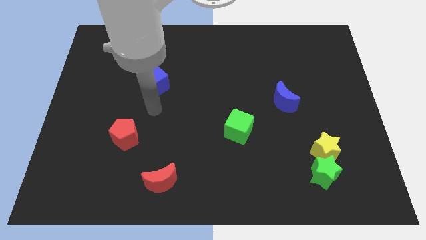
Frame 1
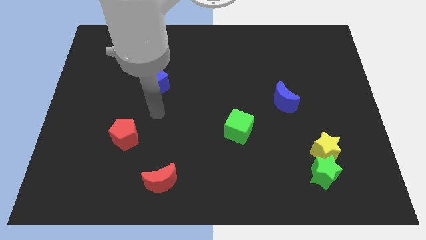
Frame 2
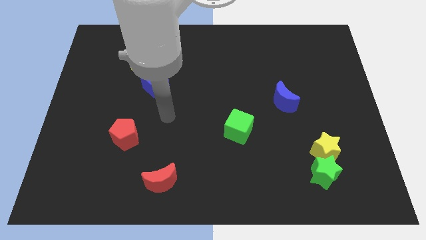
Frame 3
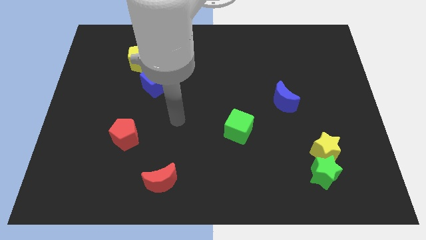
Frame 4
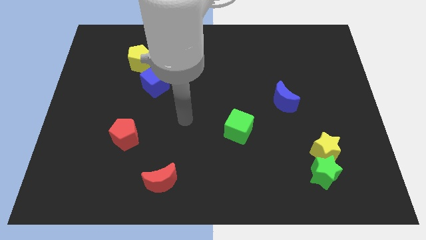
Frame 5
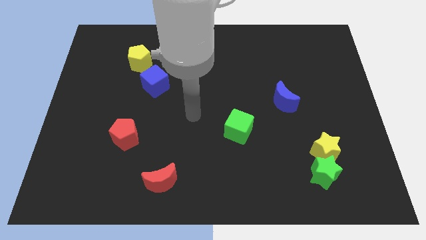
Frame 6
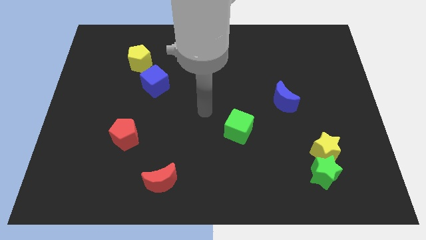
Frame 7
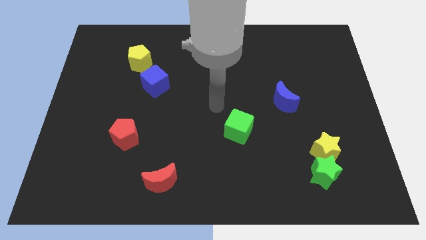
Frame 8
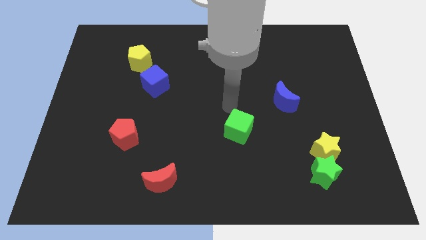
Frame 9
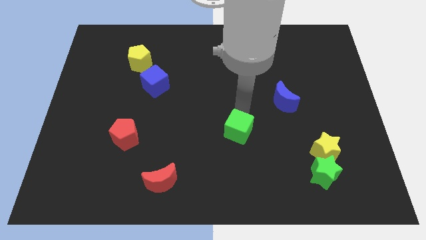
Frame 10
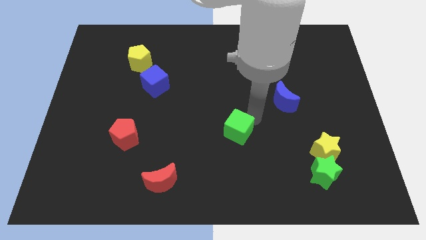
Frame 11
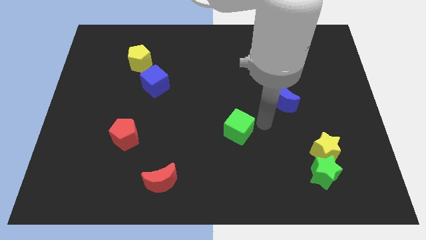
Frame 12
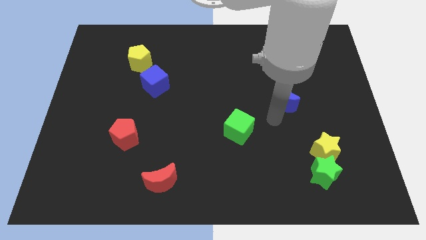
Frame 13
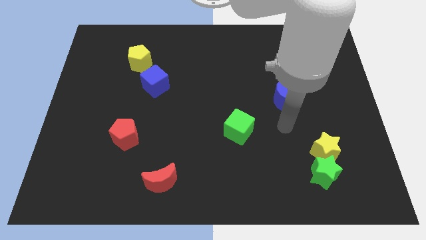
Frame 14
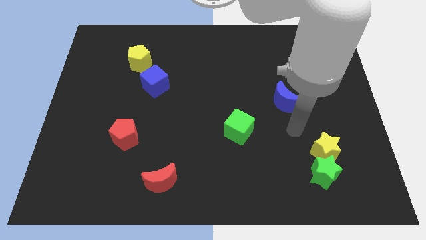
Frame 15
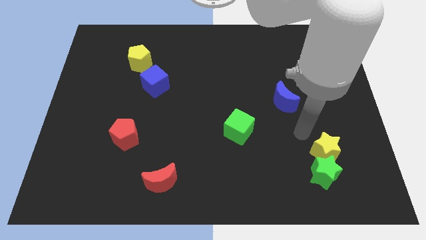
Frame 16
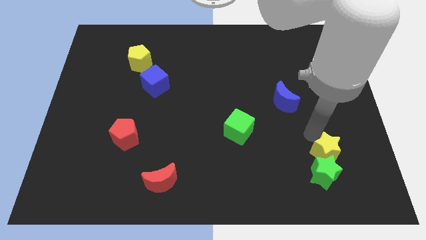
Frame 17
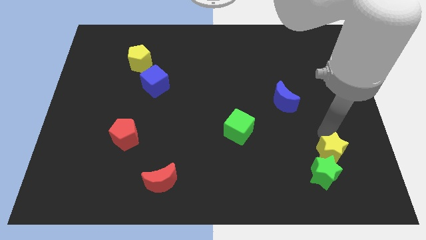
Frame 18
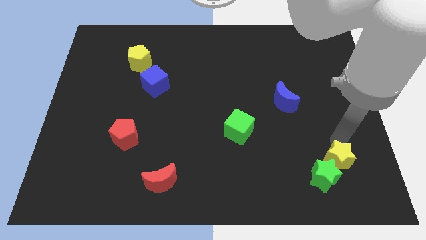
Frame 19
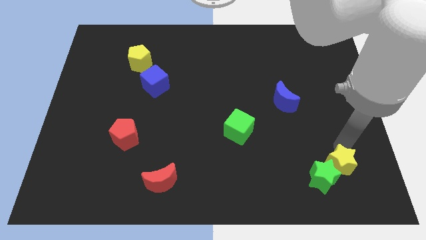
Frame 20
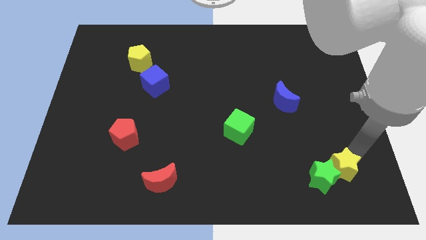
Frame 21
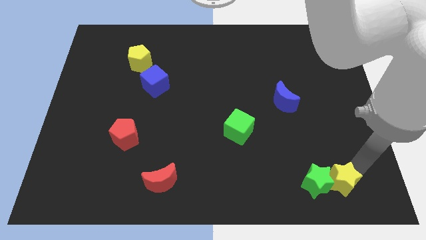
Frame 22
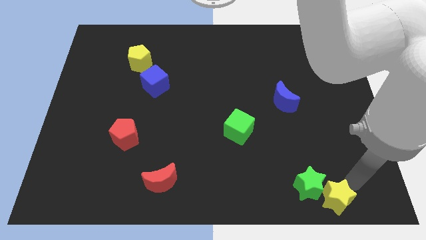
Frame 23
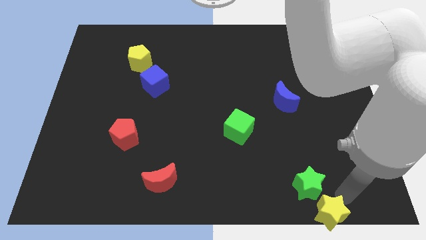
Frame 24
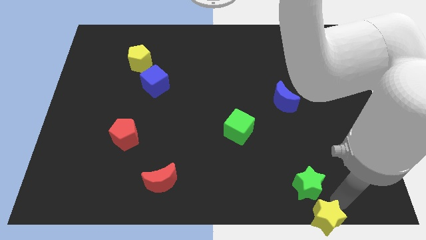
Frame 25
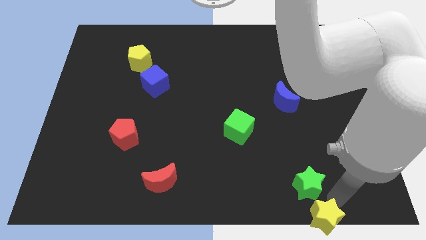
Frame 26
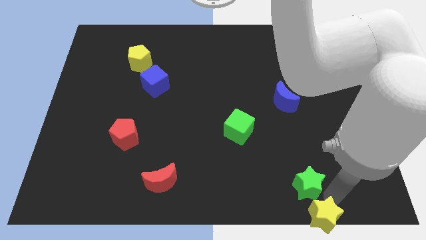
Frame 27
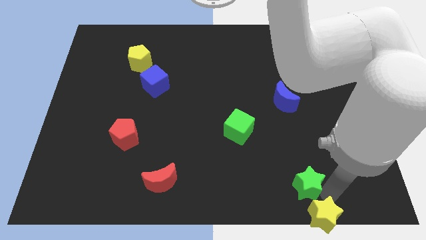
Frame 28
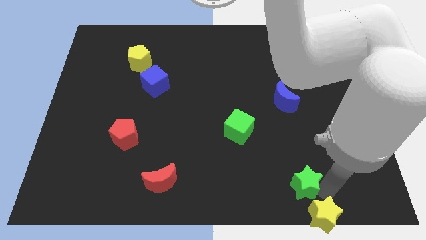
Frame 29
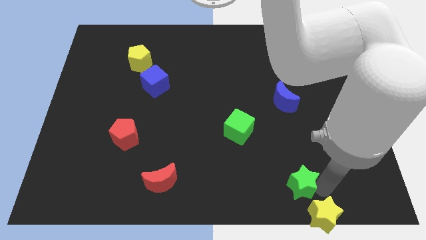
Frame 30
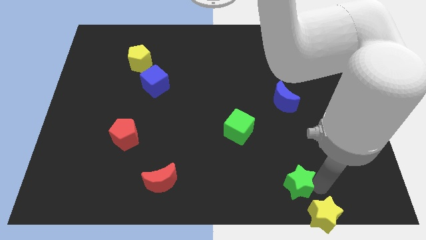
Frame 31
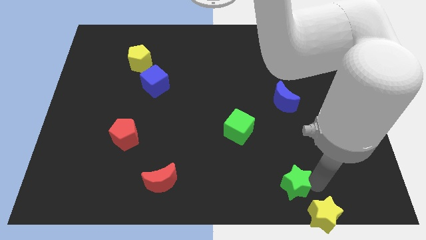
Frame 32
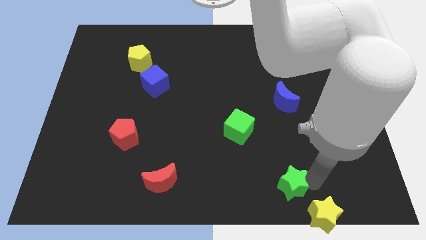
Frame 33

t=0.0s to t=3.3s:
slightly move the green star left

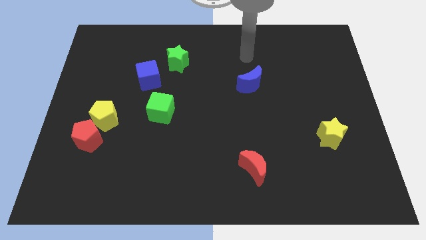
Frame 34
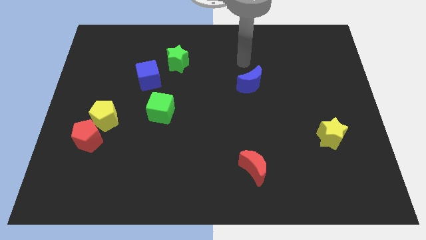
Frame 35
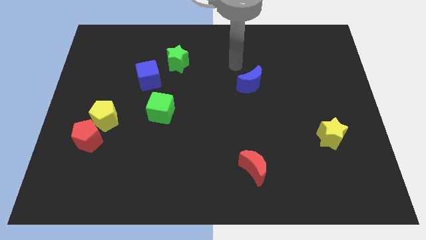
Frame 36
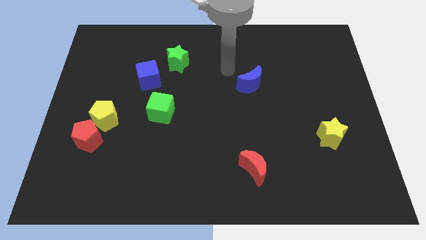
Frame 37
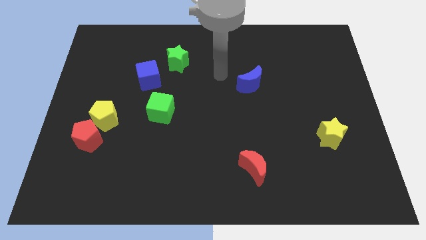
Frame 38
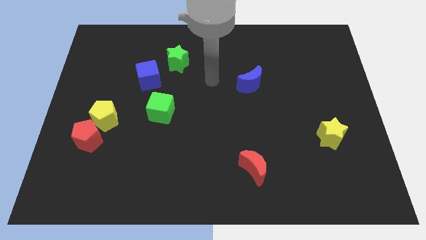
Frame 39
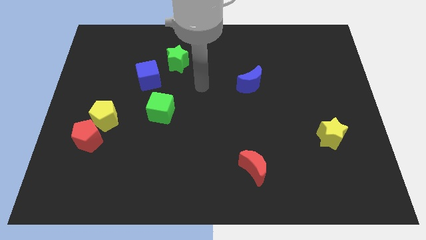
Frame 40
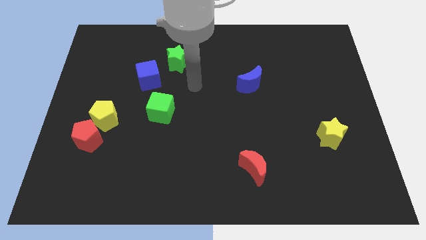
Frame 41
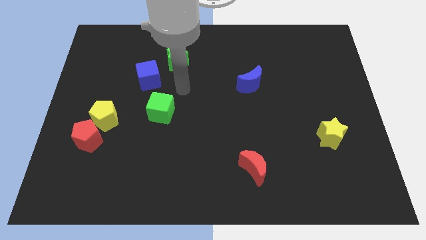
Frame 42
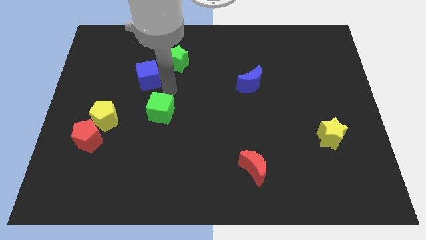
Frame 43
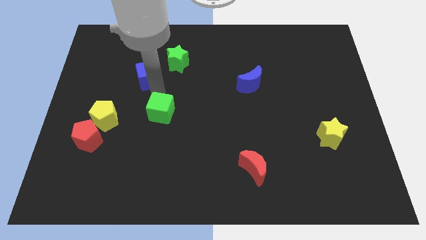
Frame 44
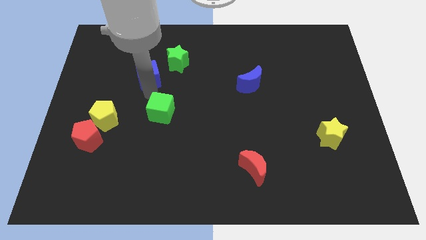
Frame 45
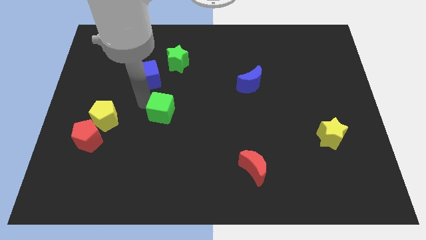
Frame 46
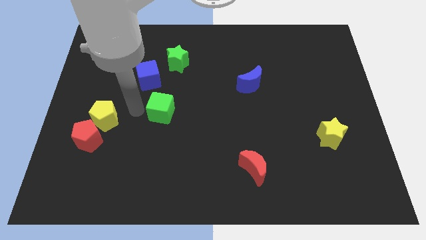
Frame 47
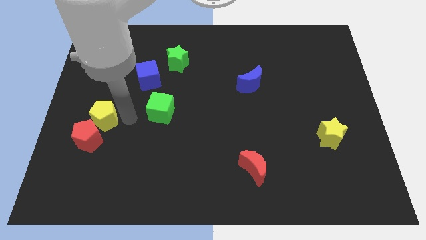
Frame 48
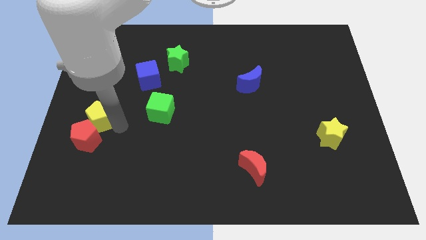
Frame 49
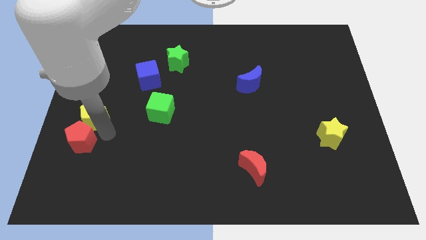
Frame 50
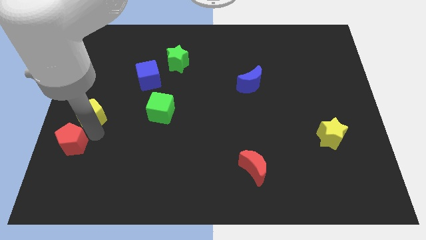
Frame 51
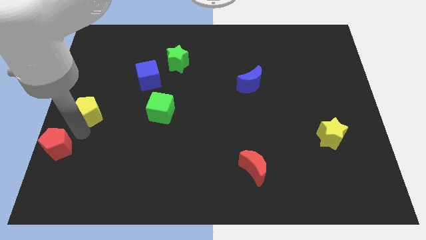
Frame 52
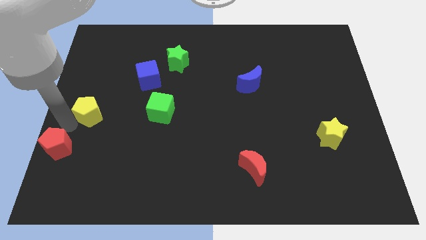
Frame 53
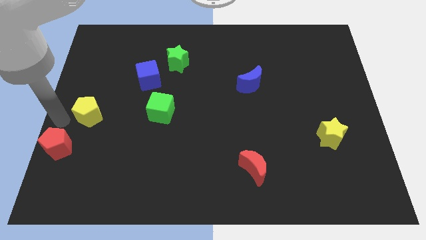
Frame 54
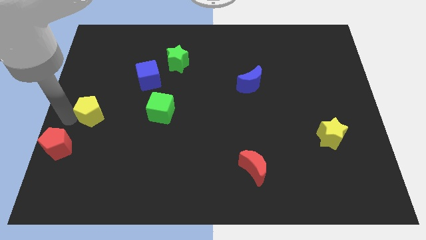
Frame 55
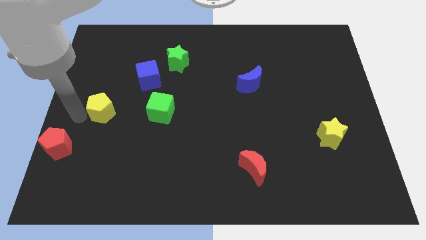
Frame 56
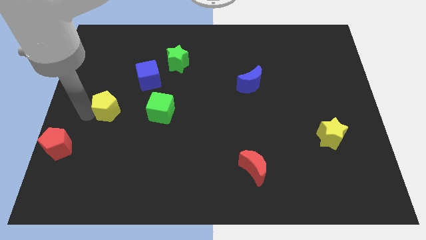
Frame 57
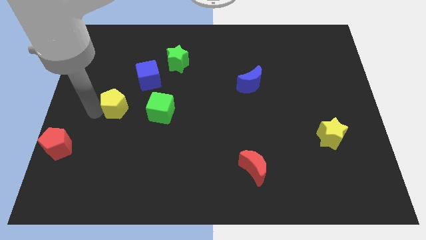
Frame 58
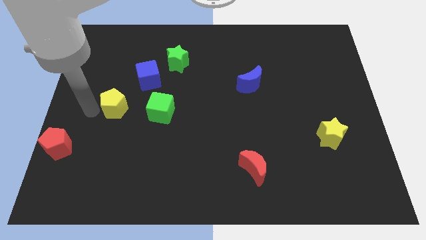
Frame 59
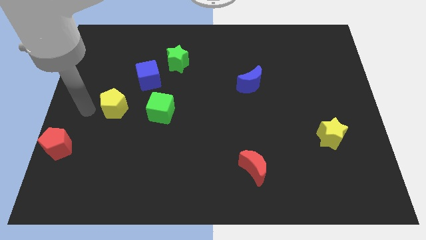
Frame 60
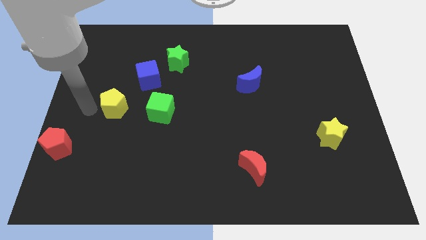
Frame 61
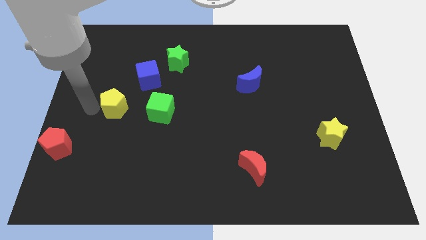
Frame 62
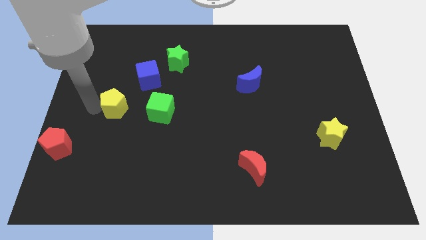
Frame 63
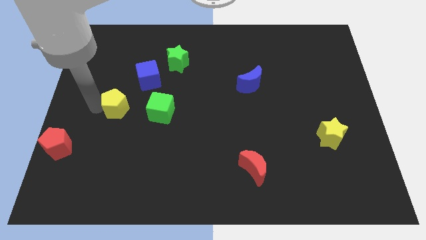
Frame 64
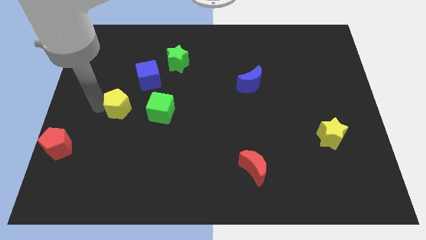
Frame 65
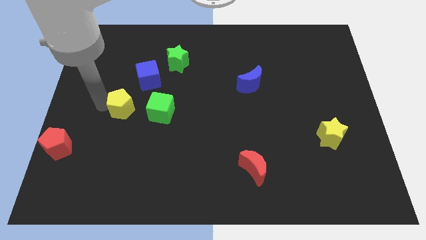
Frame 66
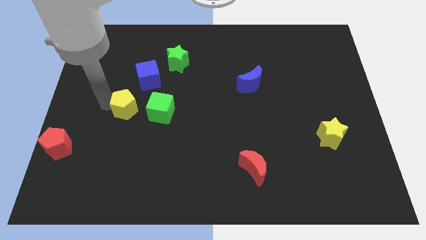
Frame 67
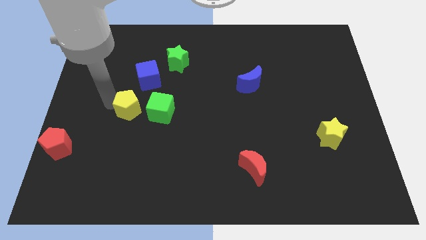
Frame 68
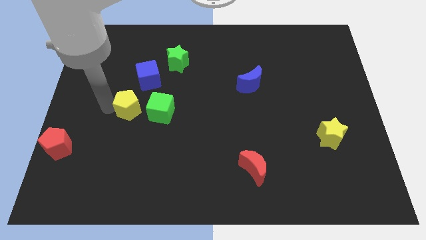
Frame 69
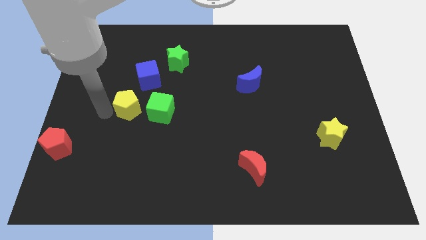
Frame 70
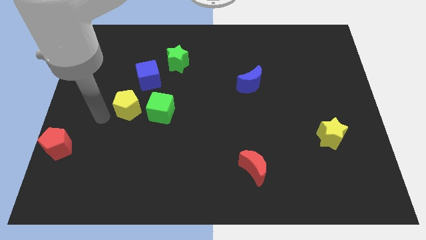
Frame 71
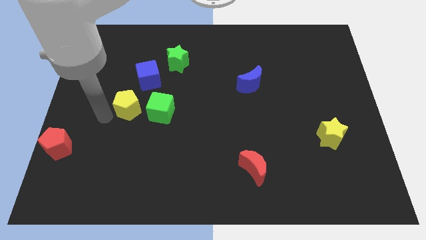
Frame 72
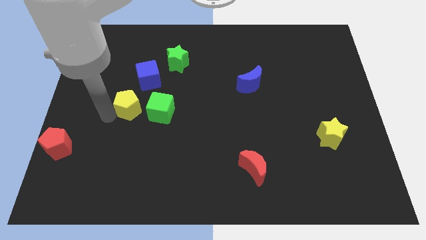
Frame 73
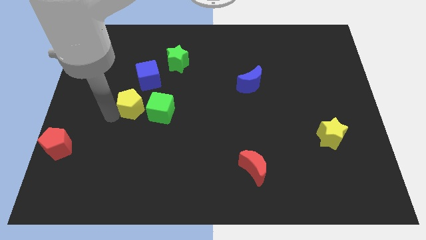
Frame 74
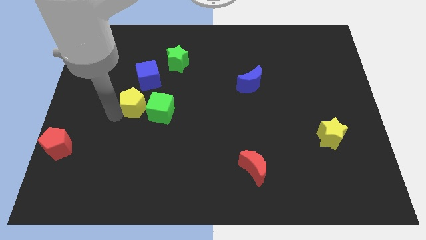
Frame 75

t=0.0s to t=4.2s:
slightly push the yellow pentagon diagonally up and to the right
